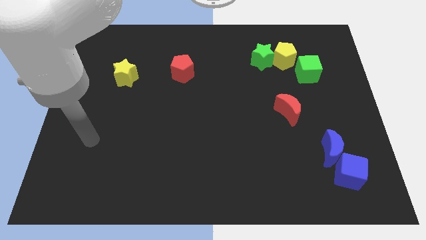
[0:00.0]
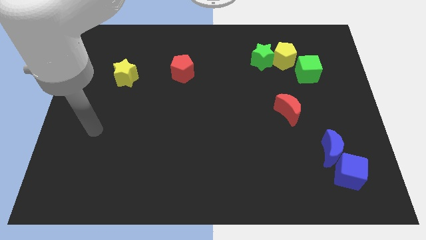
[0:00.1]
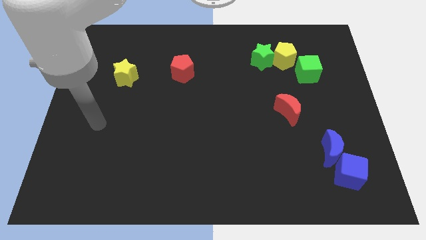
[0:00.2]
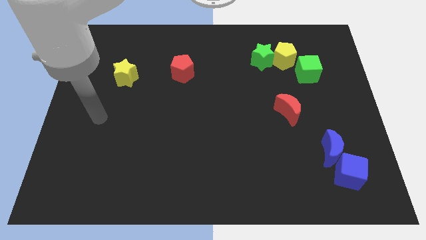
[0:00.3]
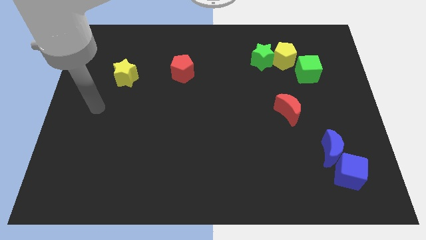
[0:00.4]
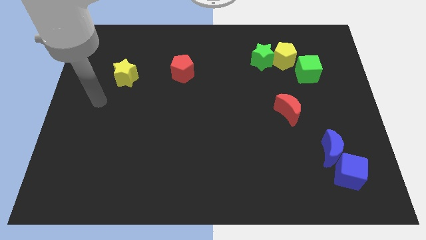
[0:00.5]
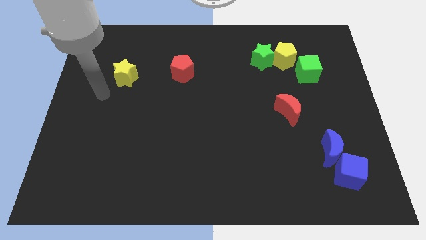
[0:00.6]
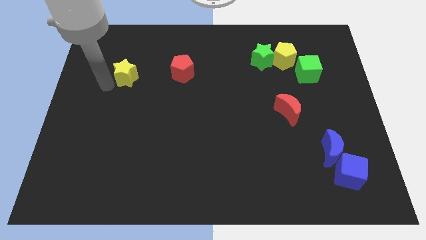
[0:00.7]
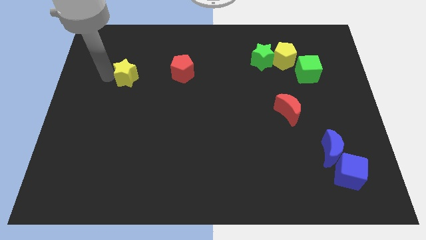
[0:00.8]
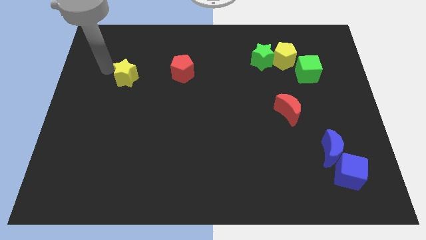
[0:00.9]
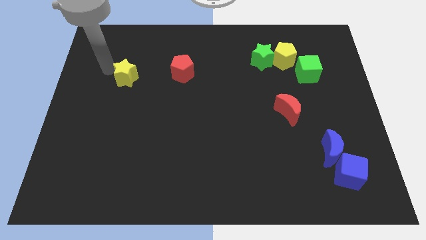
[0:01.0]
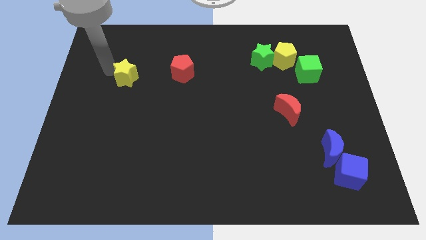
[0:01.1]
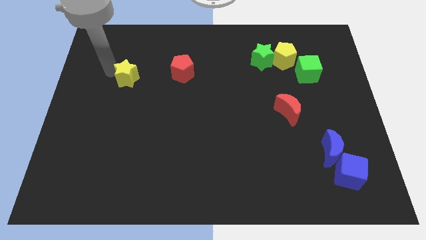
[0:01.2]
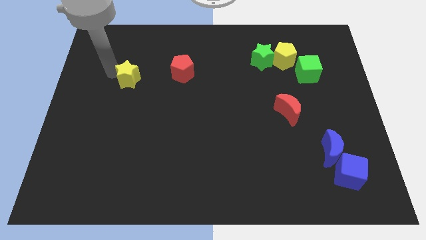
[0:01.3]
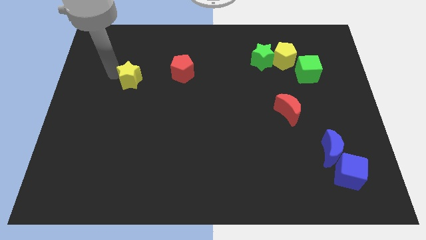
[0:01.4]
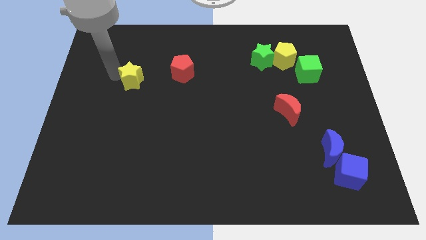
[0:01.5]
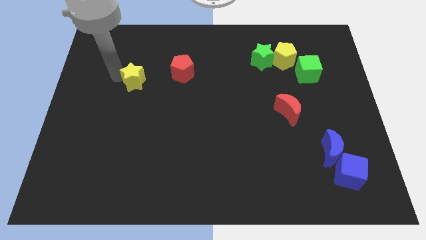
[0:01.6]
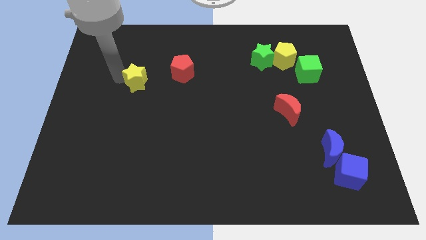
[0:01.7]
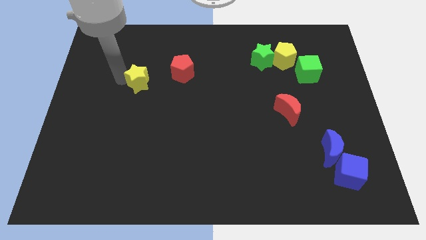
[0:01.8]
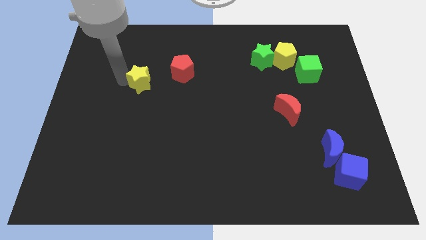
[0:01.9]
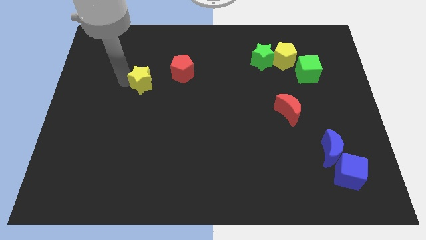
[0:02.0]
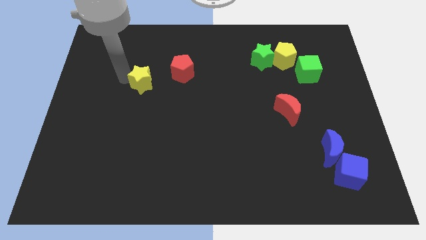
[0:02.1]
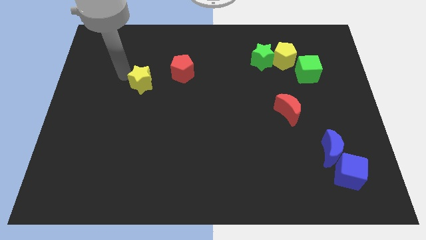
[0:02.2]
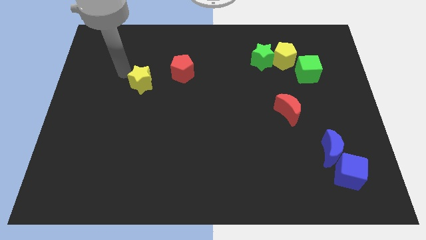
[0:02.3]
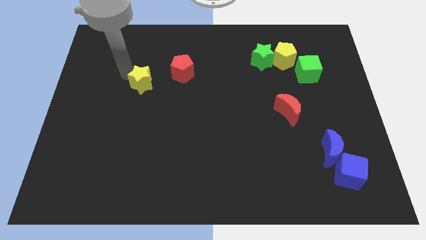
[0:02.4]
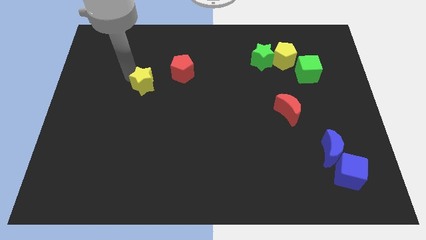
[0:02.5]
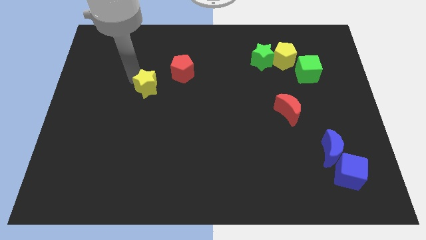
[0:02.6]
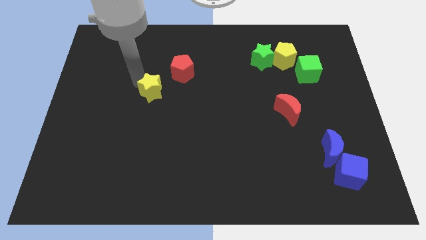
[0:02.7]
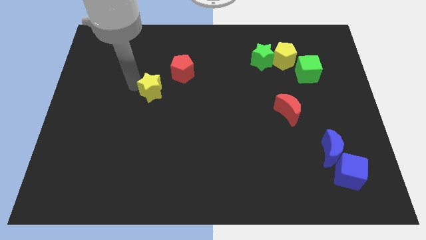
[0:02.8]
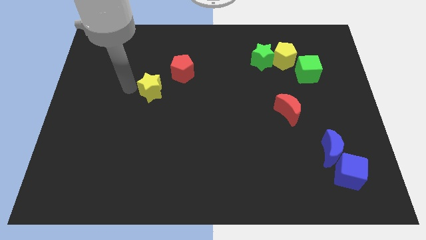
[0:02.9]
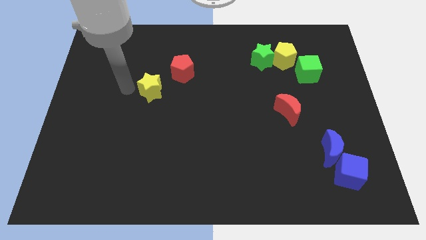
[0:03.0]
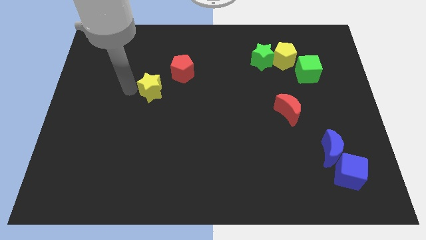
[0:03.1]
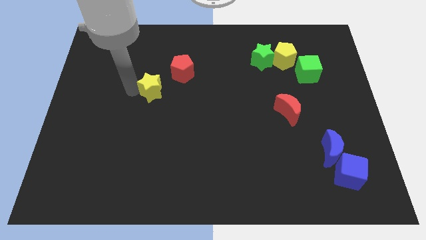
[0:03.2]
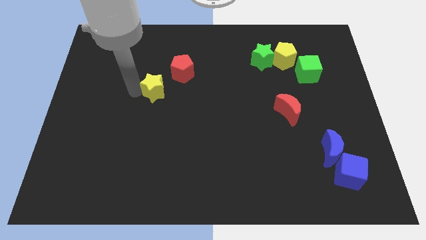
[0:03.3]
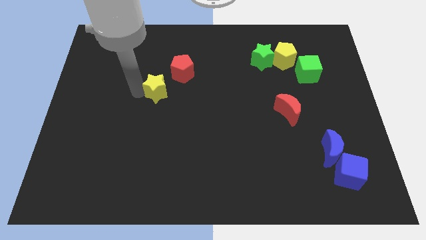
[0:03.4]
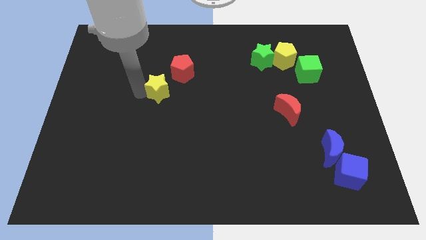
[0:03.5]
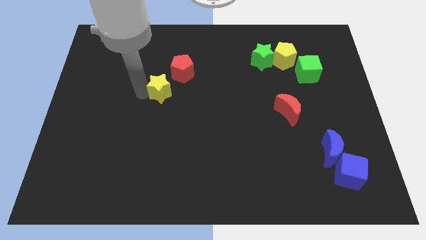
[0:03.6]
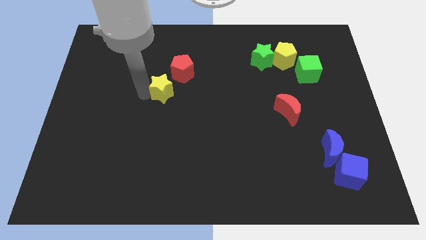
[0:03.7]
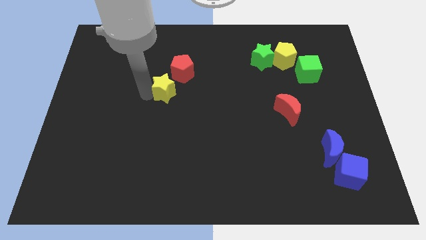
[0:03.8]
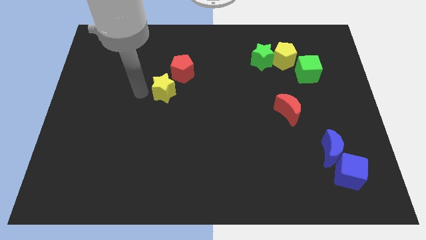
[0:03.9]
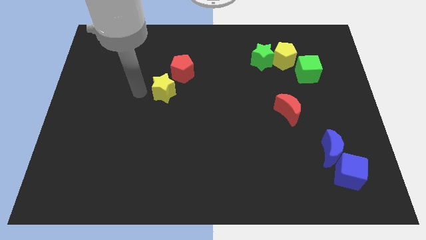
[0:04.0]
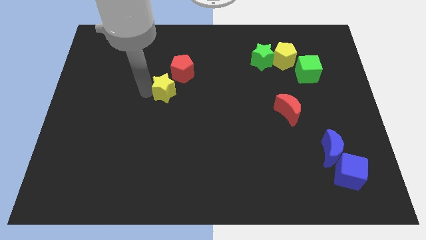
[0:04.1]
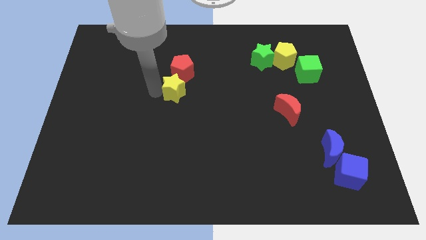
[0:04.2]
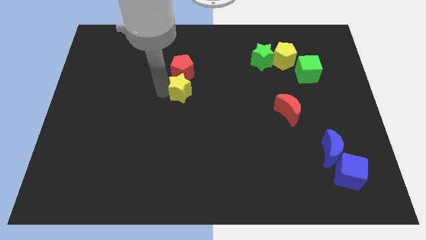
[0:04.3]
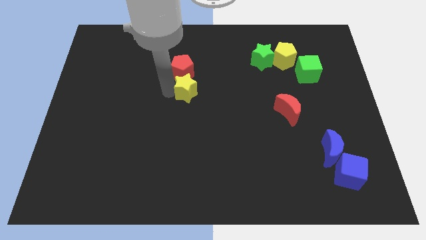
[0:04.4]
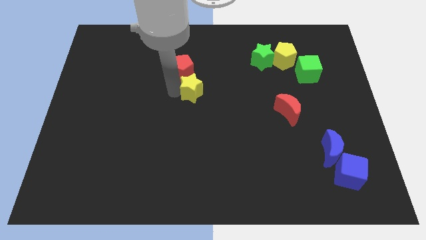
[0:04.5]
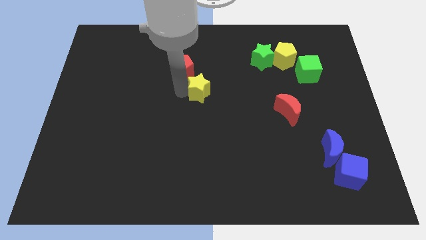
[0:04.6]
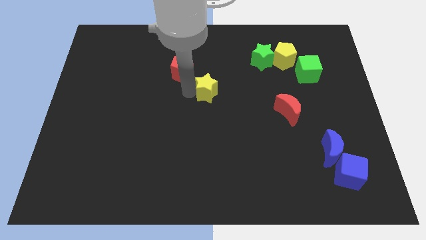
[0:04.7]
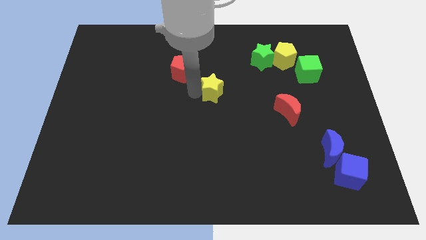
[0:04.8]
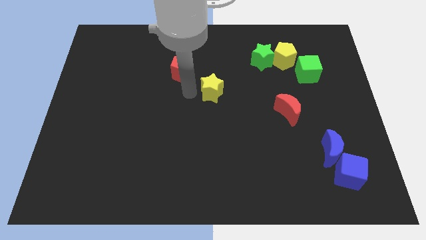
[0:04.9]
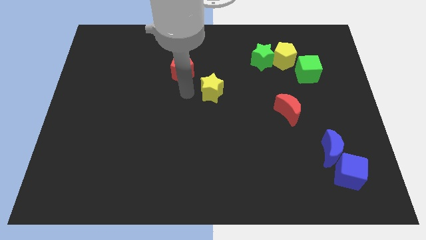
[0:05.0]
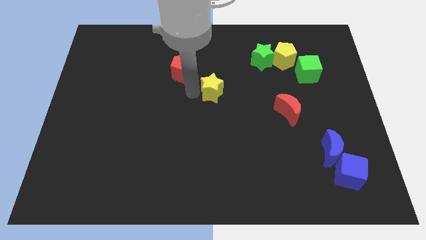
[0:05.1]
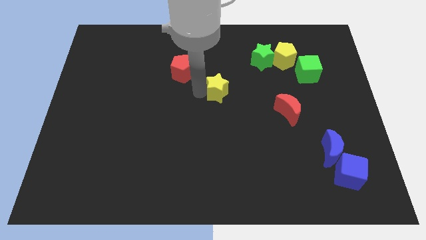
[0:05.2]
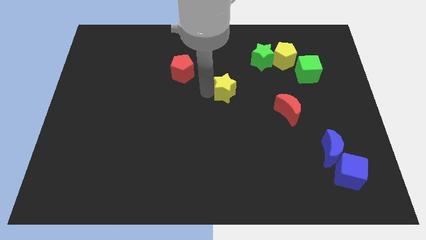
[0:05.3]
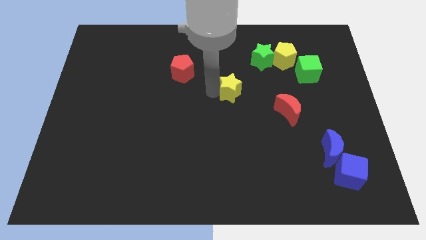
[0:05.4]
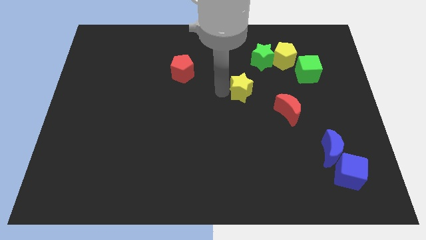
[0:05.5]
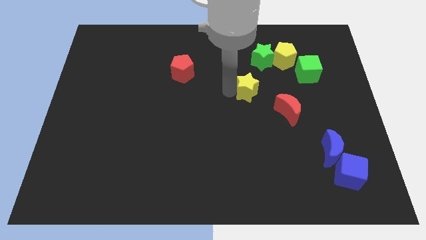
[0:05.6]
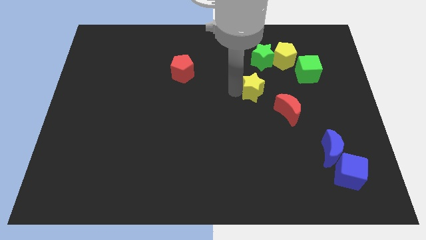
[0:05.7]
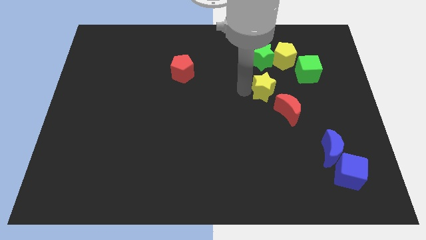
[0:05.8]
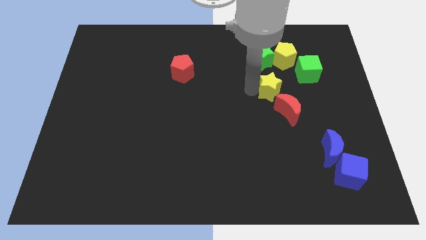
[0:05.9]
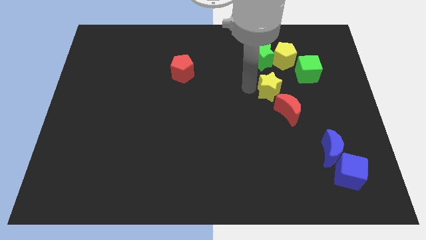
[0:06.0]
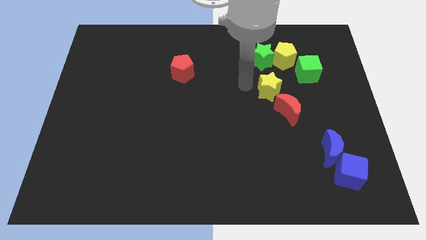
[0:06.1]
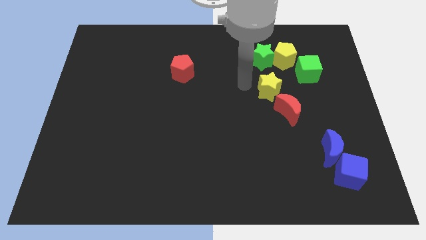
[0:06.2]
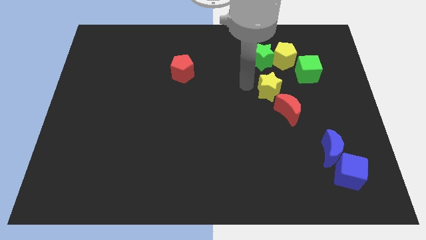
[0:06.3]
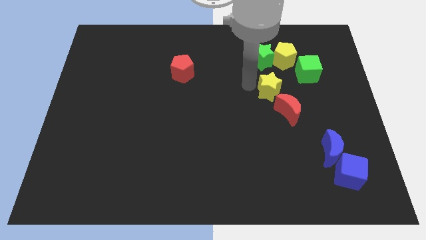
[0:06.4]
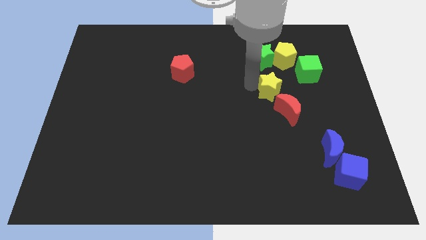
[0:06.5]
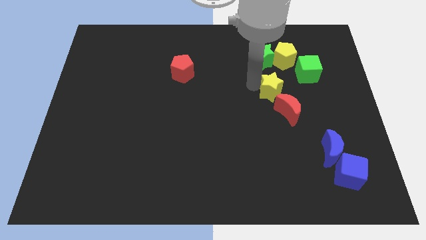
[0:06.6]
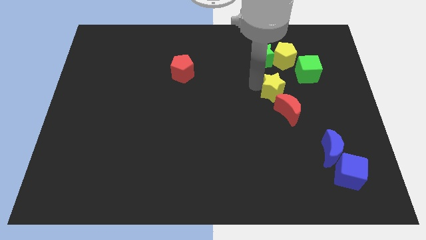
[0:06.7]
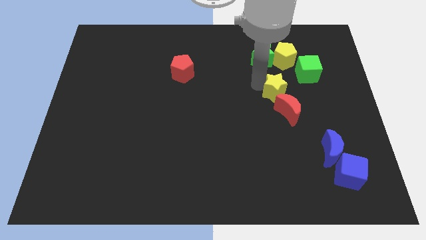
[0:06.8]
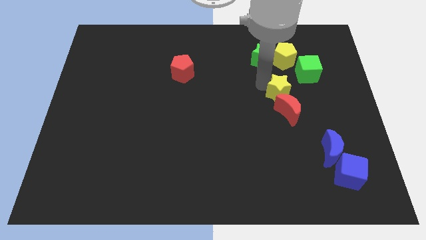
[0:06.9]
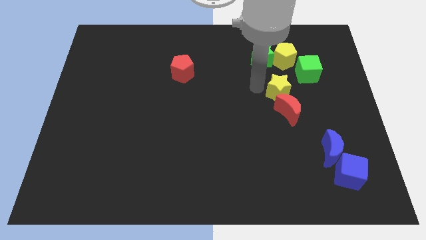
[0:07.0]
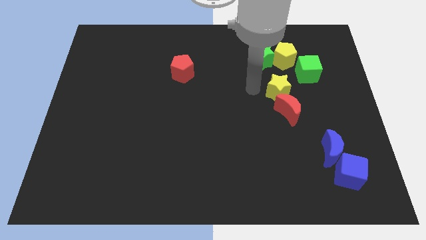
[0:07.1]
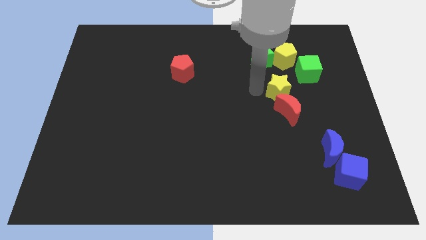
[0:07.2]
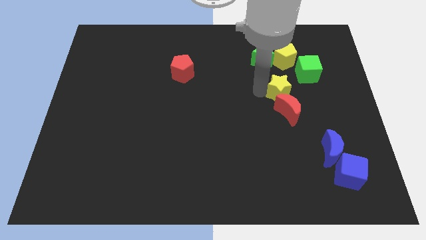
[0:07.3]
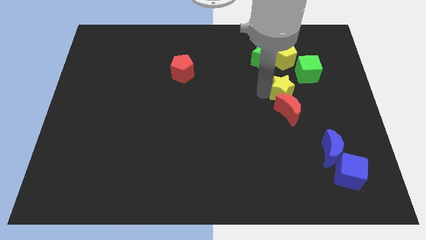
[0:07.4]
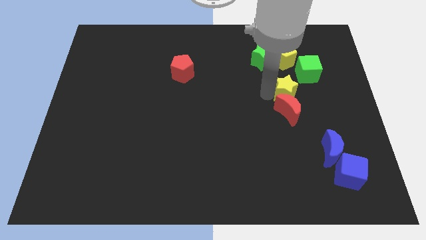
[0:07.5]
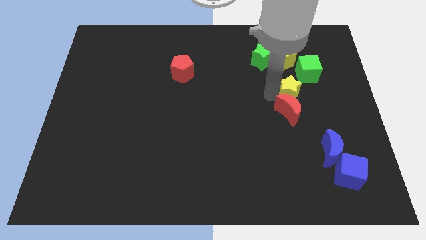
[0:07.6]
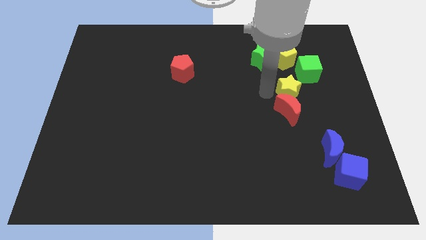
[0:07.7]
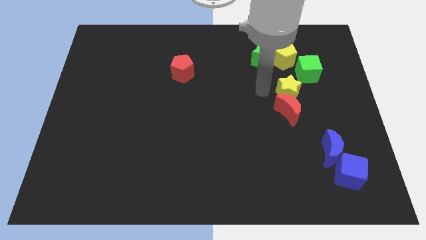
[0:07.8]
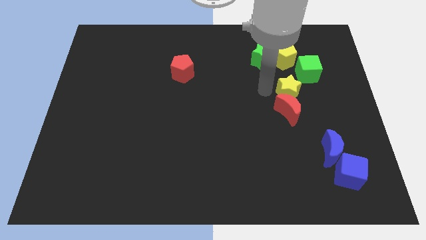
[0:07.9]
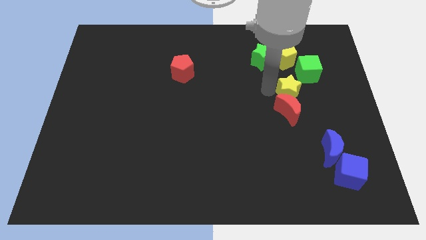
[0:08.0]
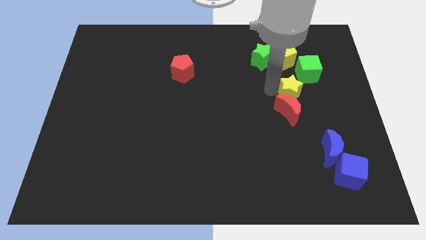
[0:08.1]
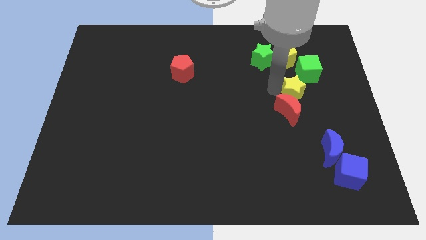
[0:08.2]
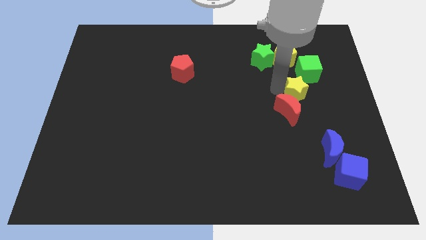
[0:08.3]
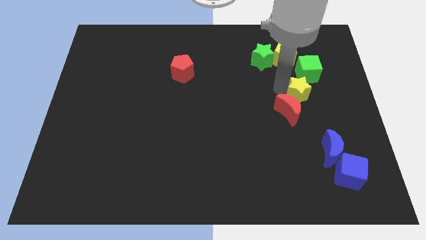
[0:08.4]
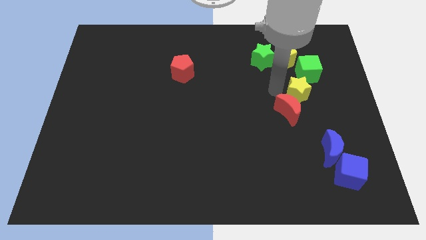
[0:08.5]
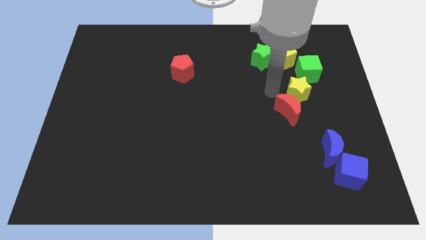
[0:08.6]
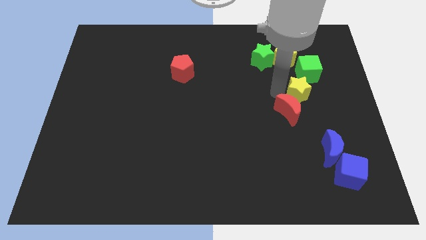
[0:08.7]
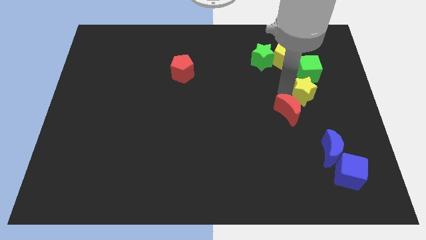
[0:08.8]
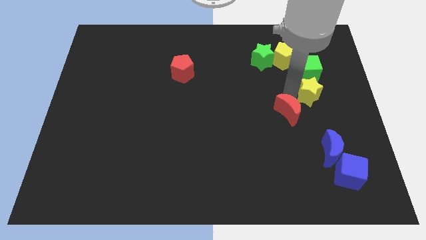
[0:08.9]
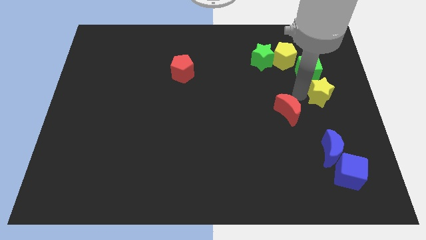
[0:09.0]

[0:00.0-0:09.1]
push the yellow star to the center right
